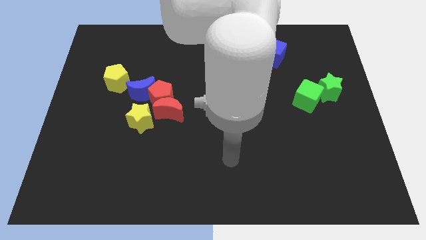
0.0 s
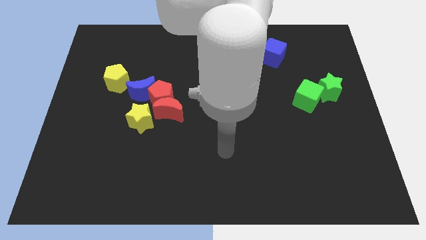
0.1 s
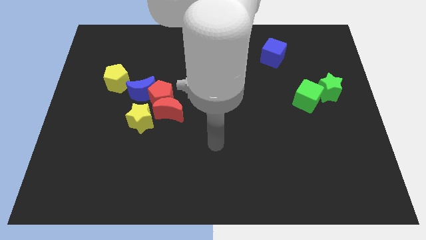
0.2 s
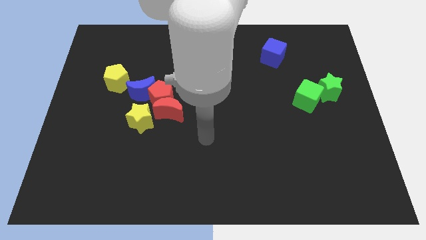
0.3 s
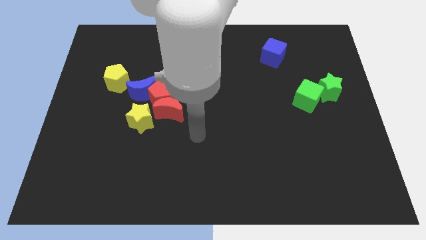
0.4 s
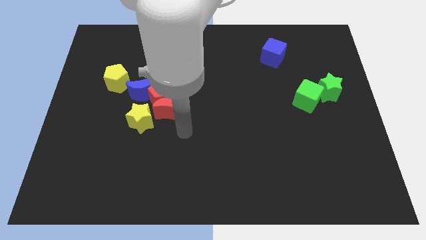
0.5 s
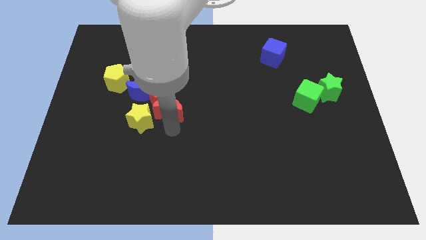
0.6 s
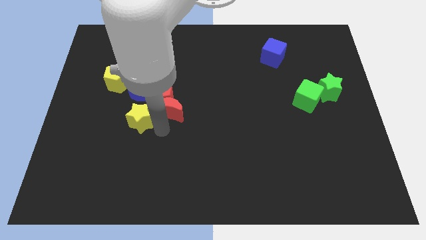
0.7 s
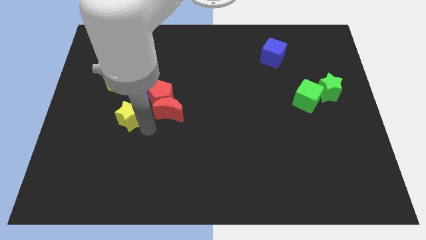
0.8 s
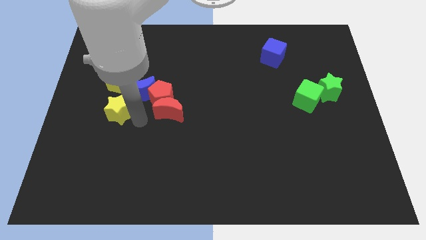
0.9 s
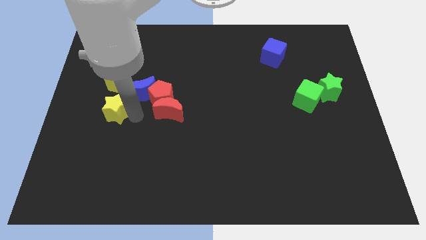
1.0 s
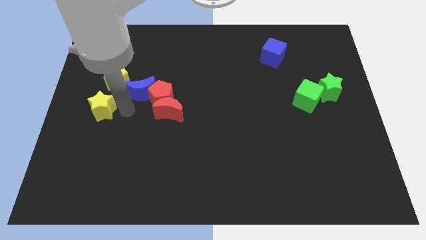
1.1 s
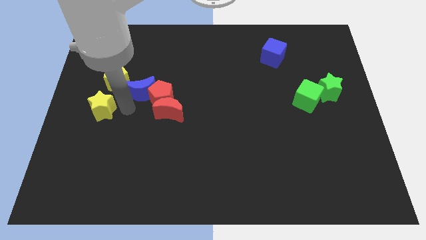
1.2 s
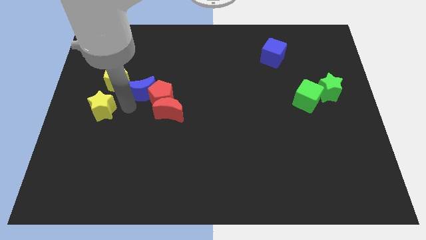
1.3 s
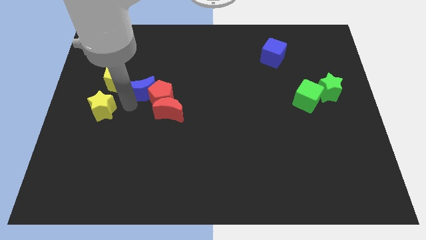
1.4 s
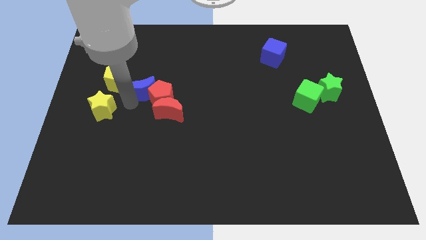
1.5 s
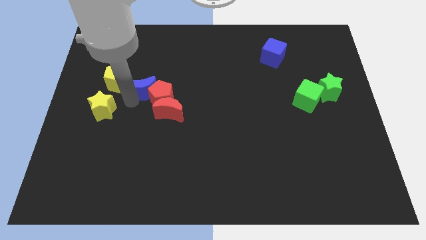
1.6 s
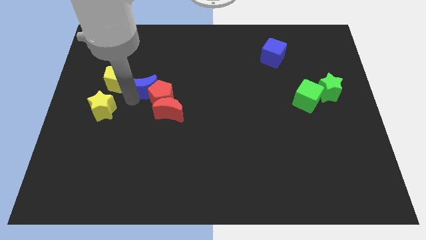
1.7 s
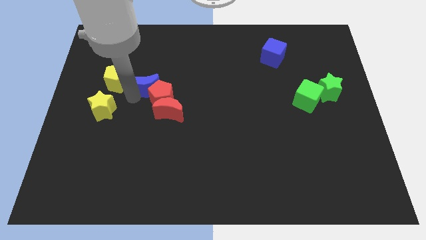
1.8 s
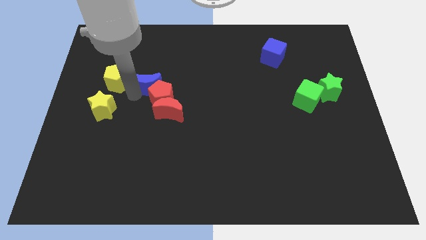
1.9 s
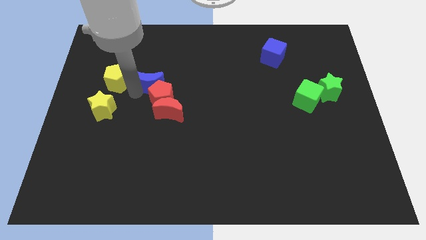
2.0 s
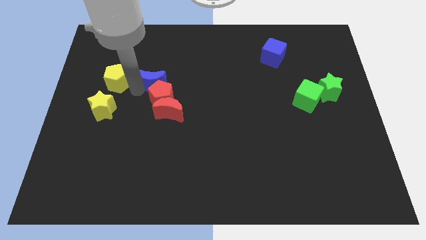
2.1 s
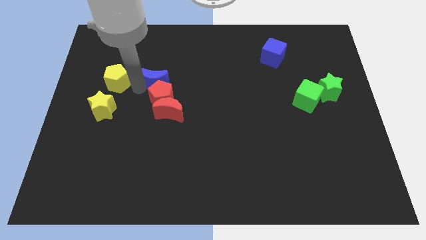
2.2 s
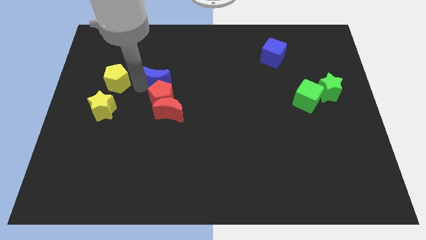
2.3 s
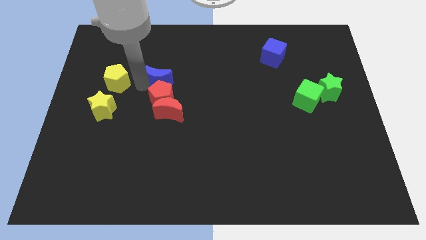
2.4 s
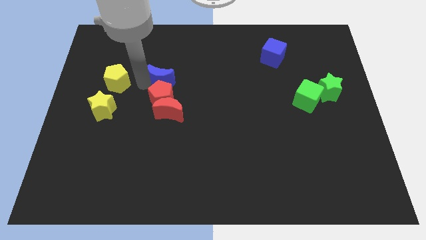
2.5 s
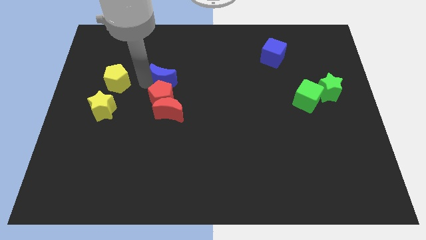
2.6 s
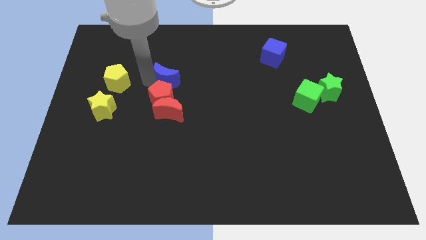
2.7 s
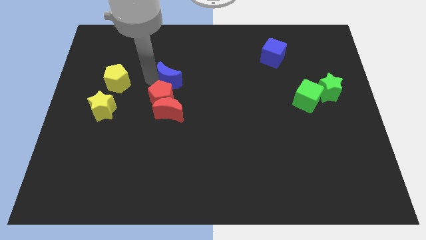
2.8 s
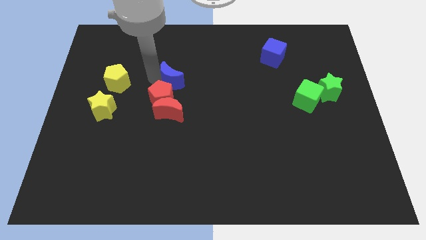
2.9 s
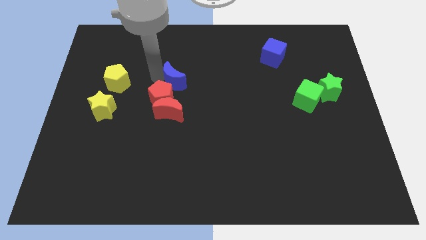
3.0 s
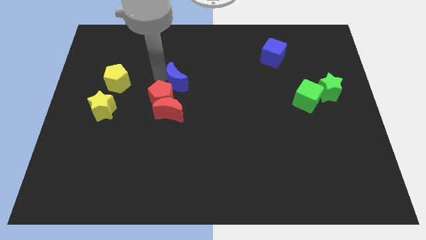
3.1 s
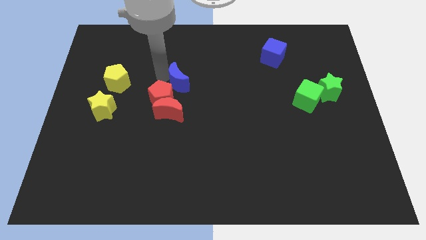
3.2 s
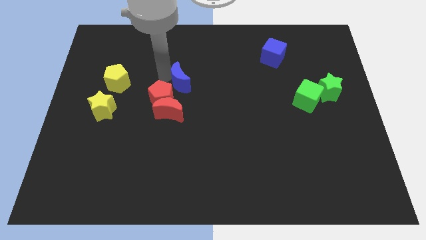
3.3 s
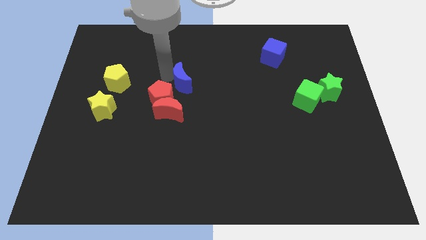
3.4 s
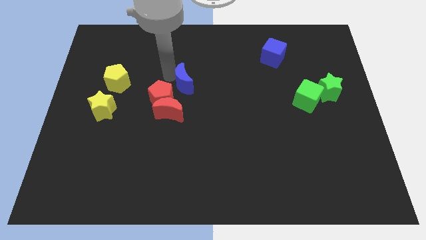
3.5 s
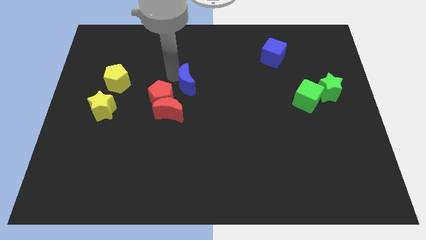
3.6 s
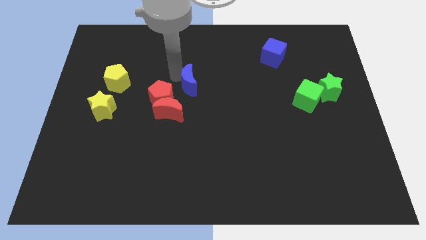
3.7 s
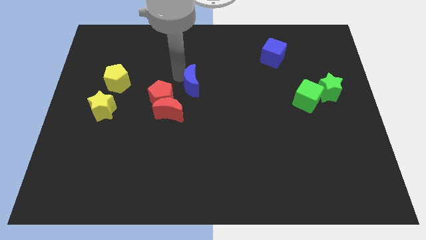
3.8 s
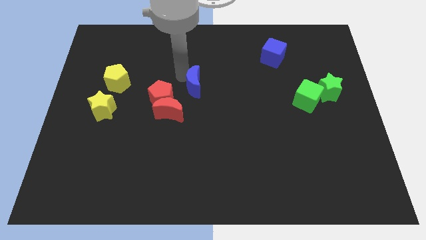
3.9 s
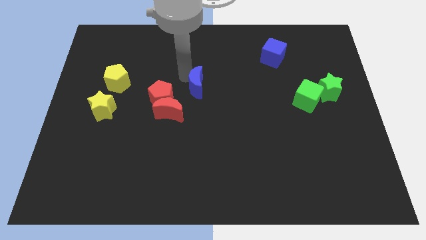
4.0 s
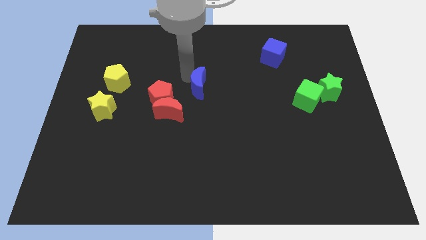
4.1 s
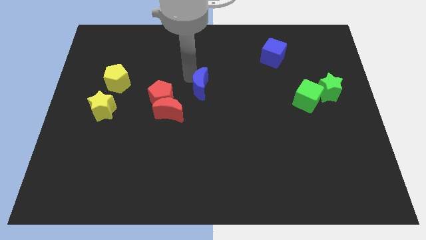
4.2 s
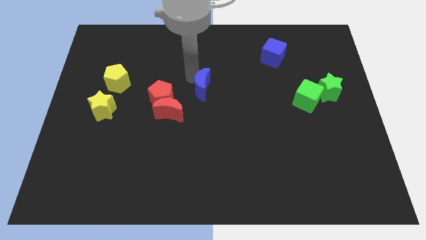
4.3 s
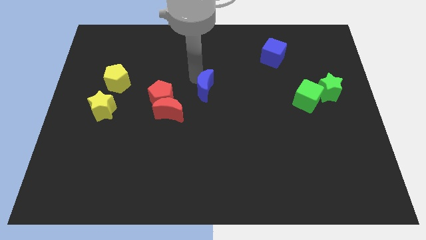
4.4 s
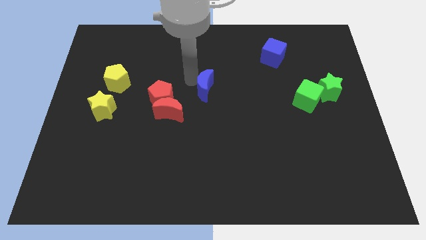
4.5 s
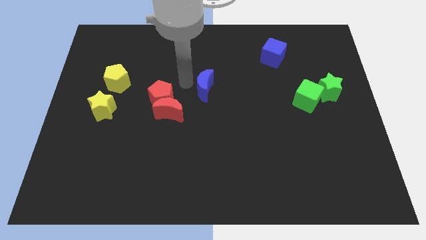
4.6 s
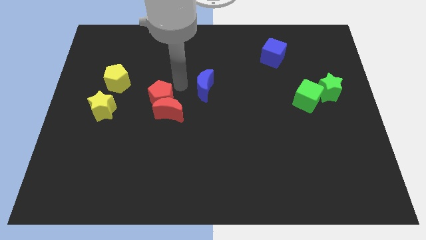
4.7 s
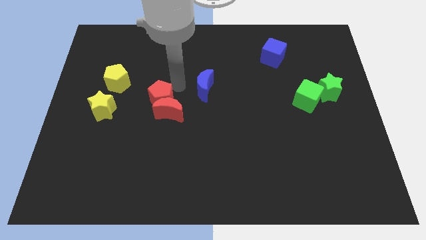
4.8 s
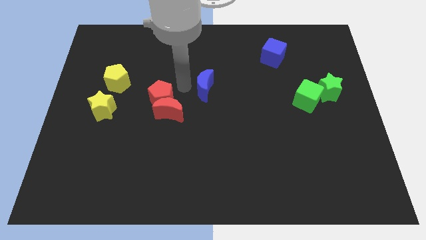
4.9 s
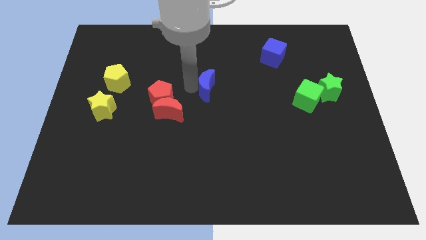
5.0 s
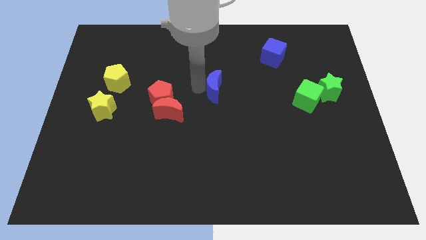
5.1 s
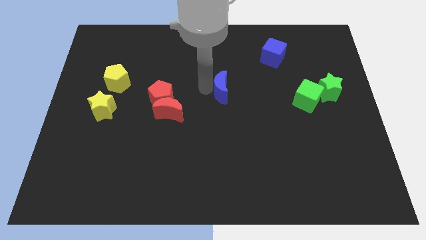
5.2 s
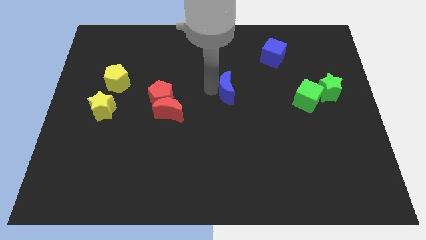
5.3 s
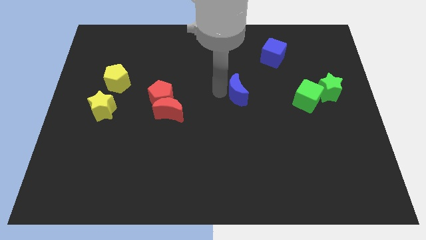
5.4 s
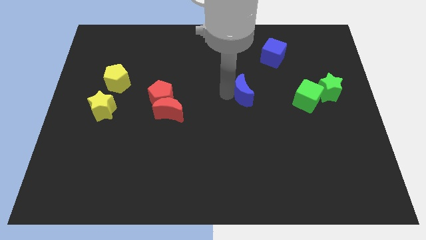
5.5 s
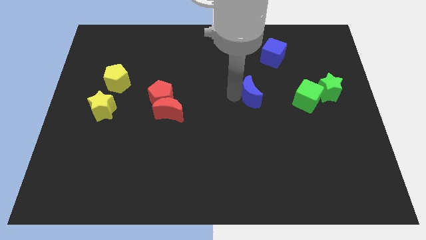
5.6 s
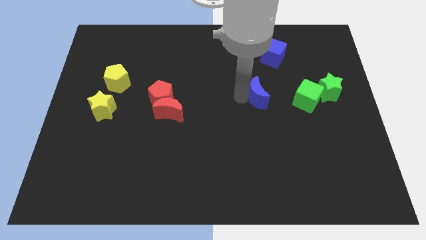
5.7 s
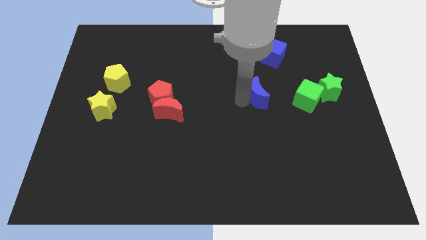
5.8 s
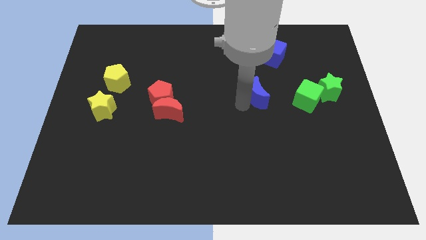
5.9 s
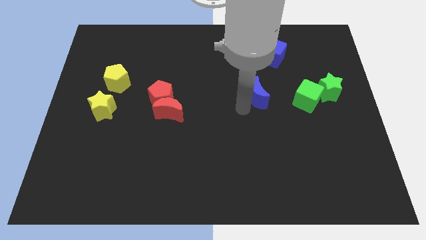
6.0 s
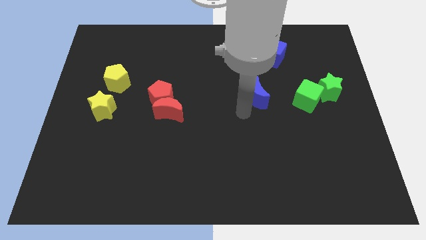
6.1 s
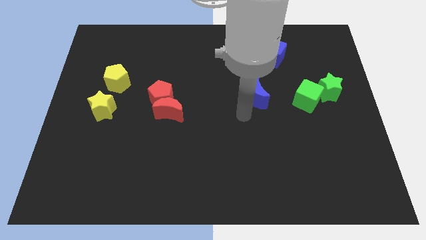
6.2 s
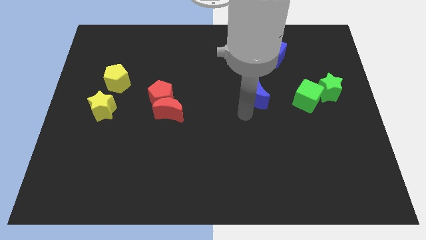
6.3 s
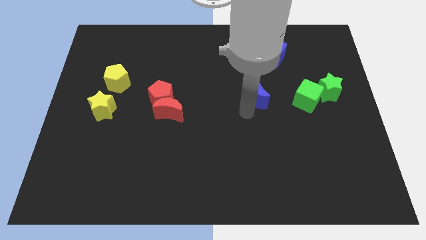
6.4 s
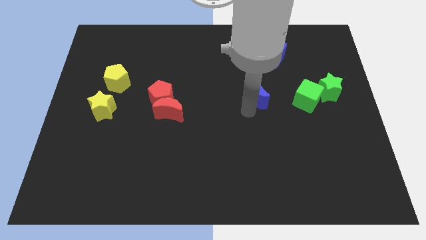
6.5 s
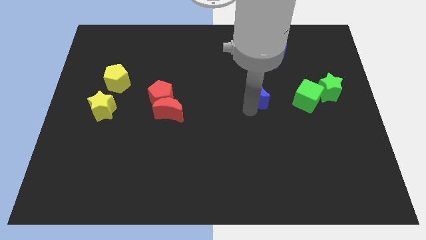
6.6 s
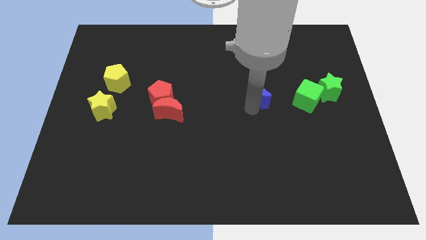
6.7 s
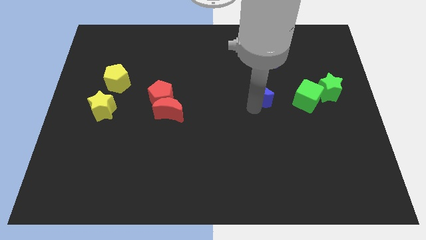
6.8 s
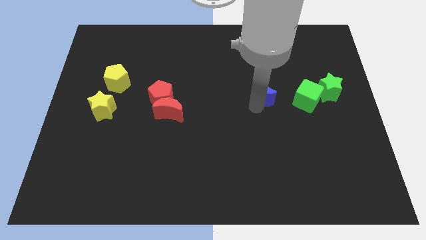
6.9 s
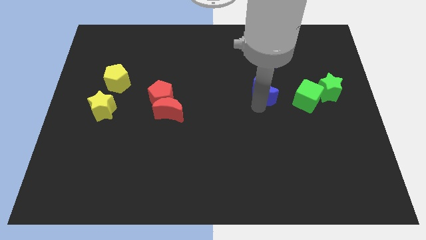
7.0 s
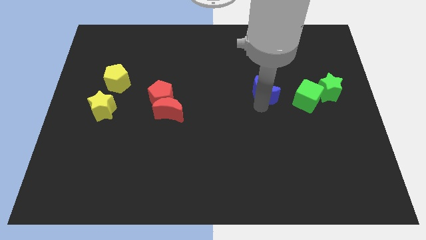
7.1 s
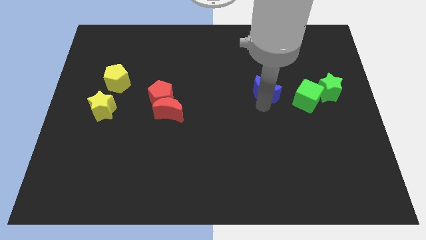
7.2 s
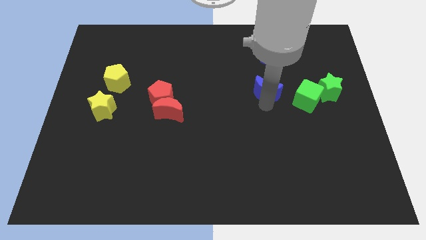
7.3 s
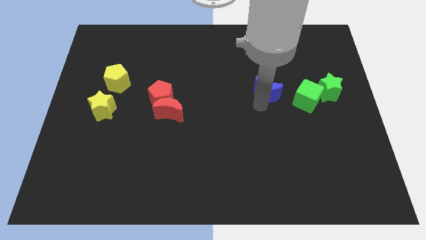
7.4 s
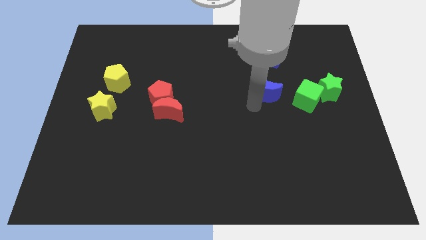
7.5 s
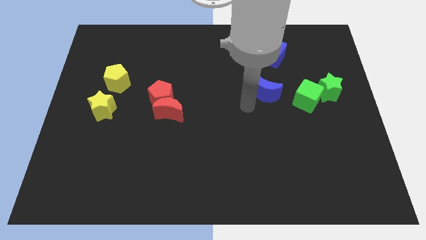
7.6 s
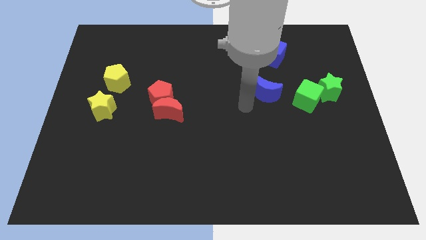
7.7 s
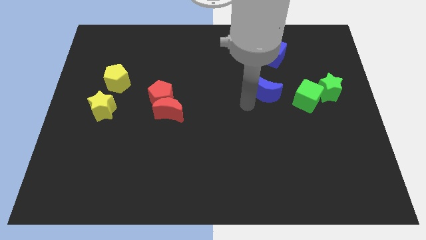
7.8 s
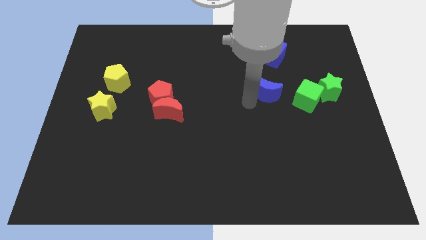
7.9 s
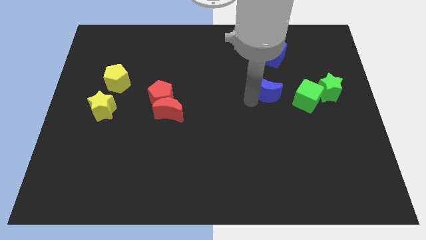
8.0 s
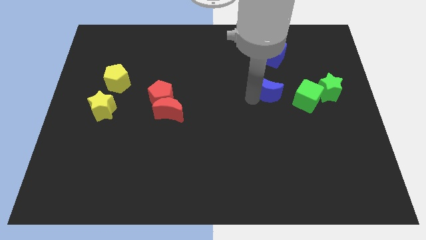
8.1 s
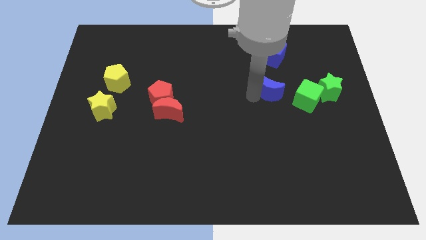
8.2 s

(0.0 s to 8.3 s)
slide the blue moon to the top left of the green cube
